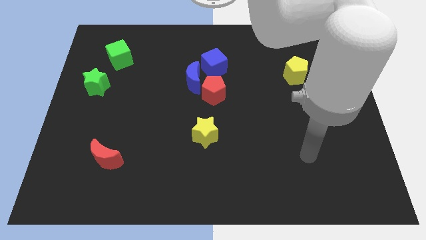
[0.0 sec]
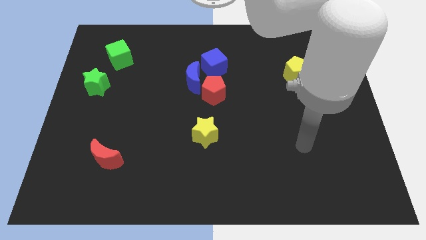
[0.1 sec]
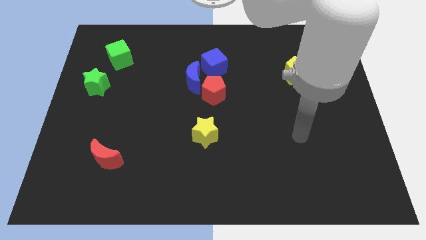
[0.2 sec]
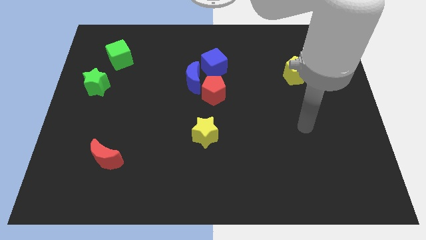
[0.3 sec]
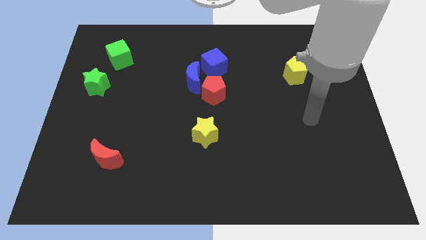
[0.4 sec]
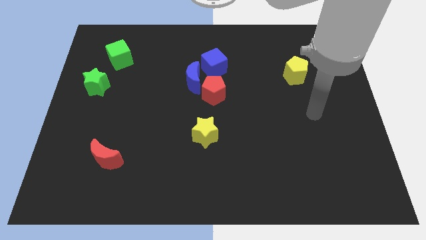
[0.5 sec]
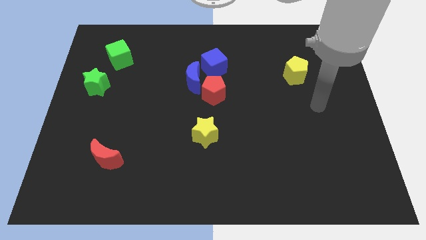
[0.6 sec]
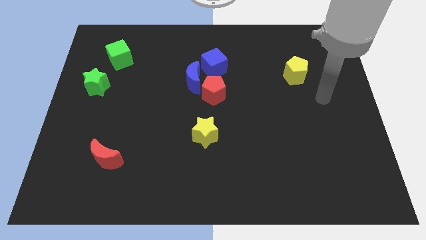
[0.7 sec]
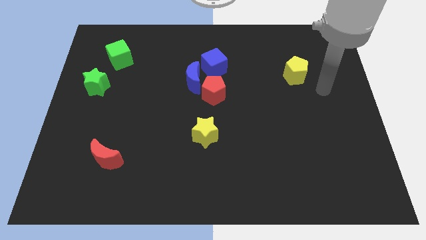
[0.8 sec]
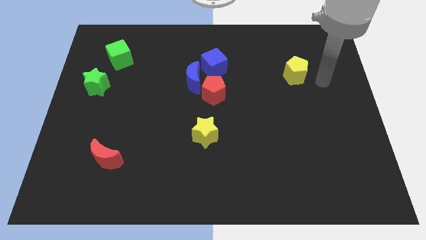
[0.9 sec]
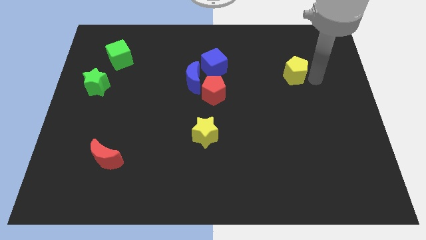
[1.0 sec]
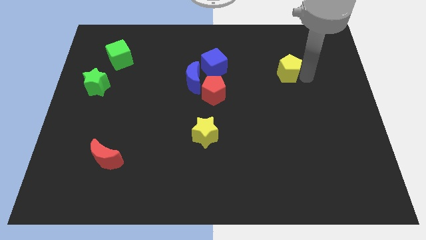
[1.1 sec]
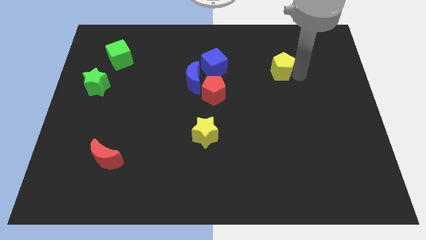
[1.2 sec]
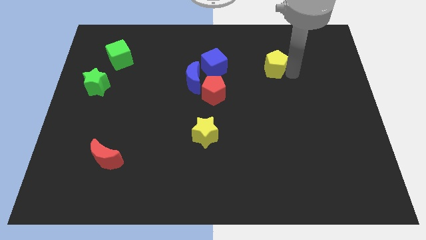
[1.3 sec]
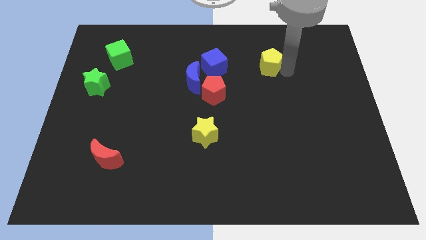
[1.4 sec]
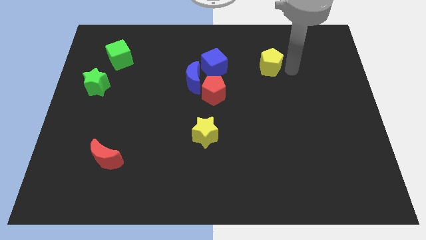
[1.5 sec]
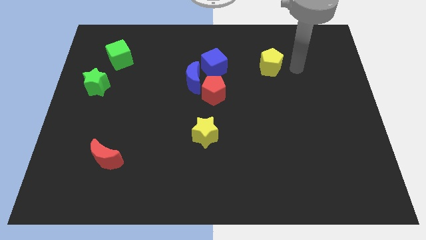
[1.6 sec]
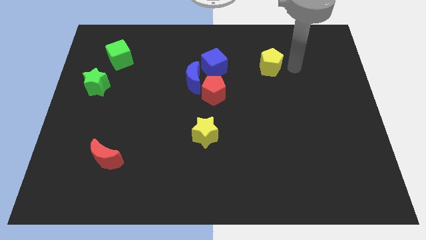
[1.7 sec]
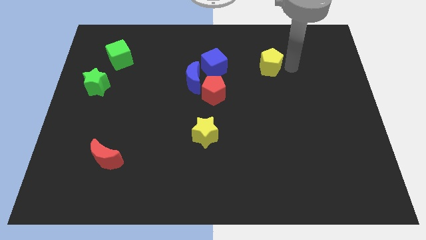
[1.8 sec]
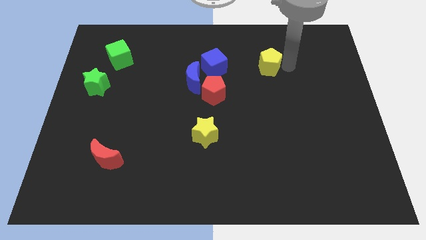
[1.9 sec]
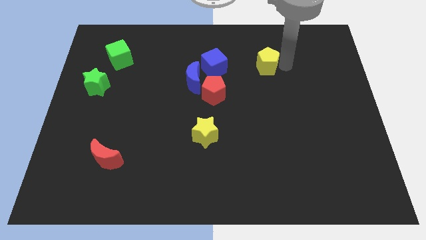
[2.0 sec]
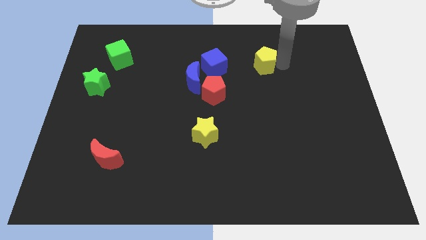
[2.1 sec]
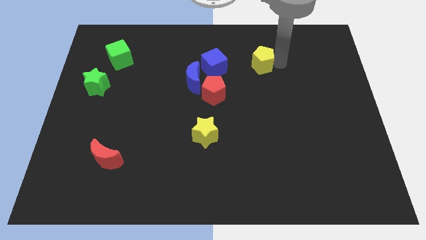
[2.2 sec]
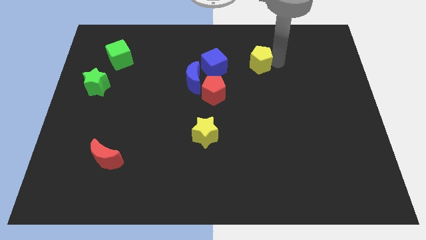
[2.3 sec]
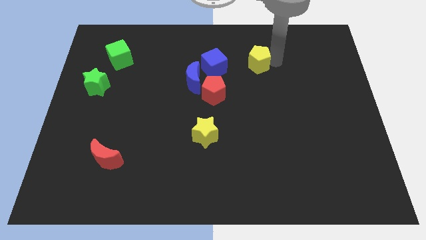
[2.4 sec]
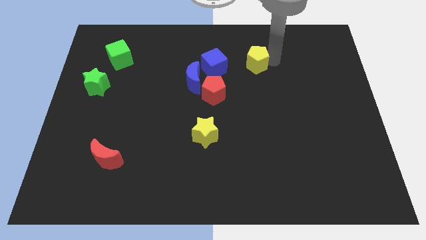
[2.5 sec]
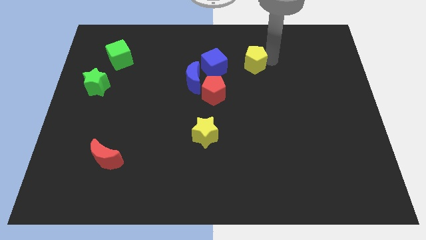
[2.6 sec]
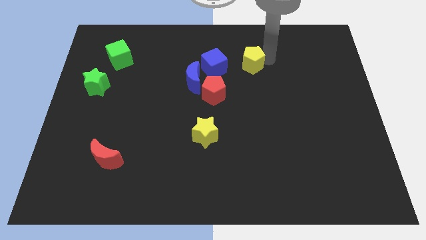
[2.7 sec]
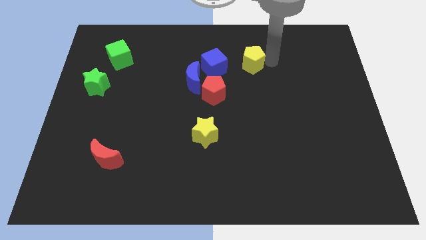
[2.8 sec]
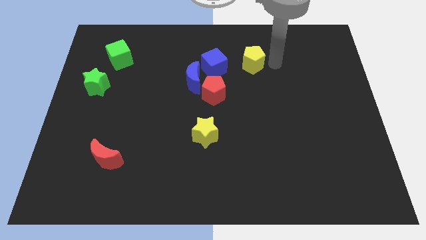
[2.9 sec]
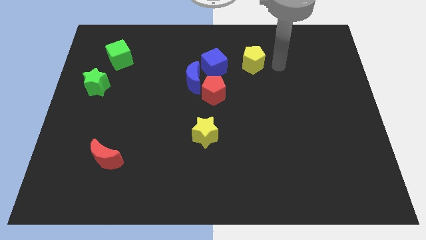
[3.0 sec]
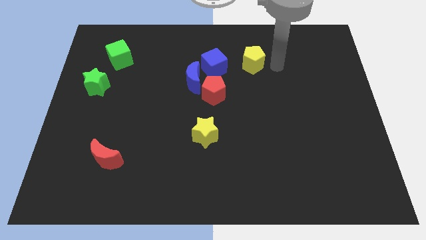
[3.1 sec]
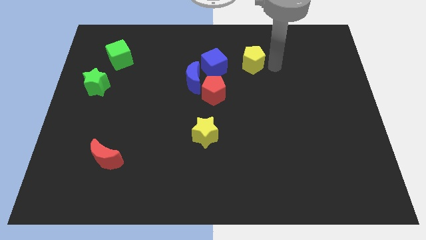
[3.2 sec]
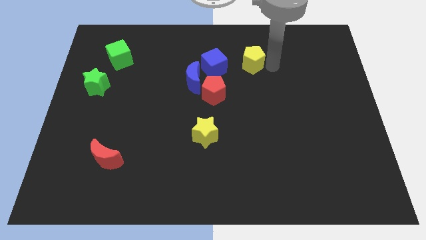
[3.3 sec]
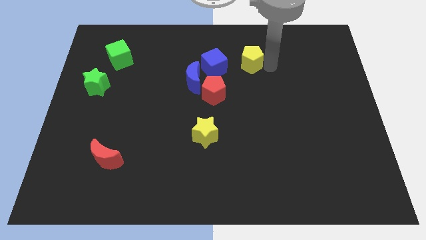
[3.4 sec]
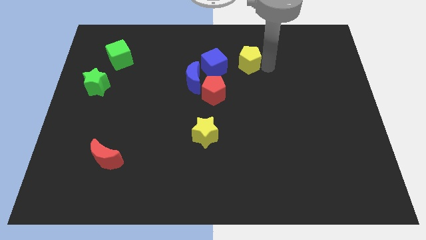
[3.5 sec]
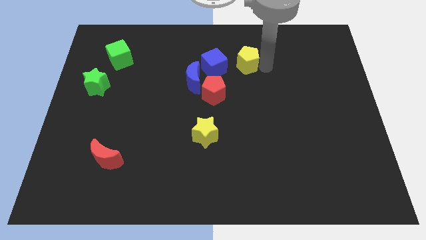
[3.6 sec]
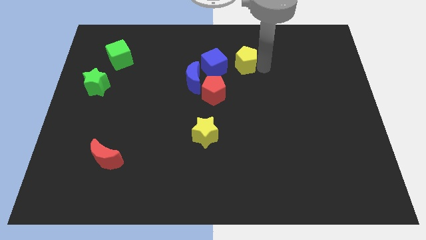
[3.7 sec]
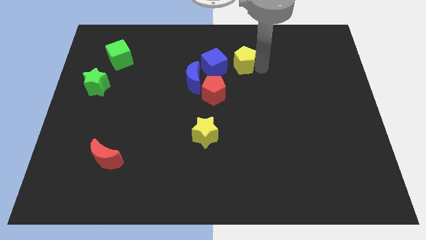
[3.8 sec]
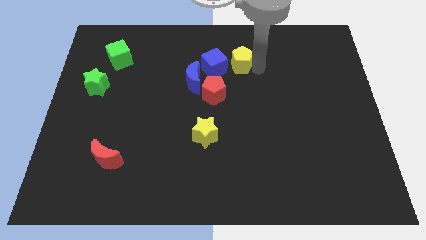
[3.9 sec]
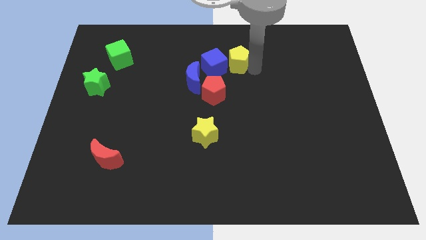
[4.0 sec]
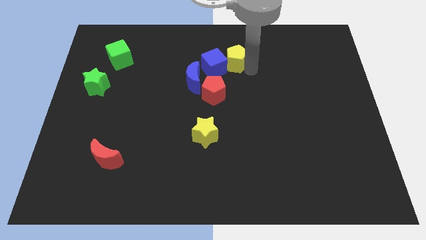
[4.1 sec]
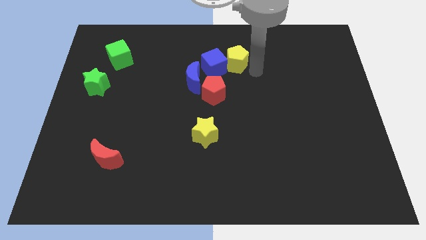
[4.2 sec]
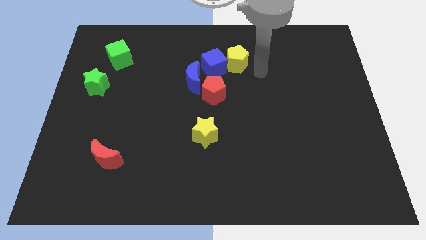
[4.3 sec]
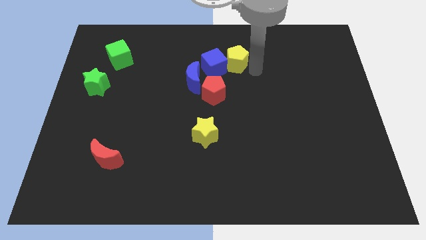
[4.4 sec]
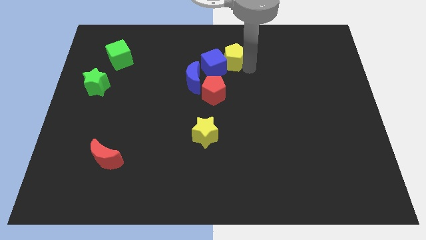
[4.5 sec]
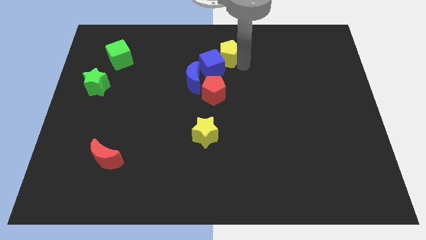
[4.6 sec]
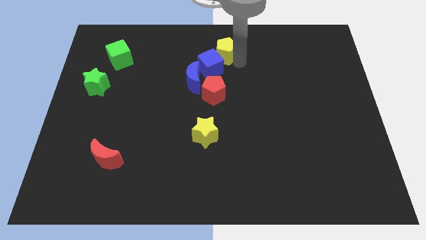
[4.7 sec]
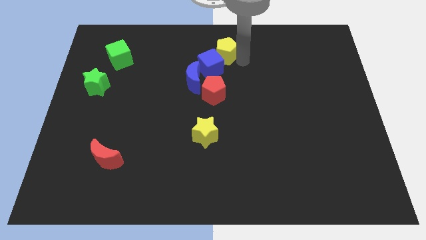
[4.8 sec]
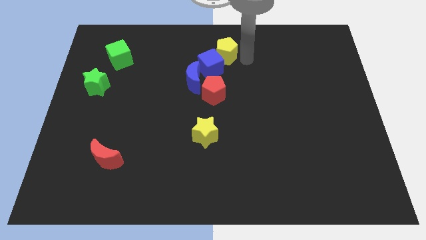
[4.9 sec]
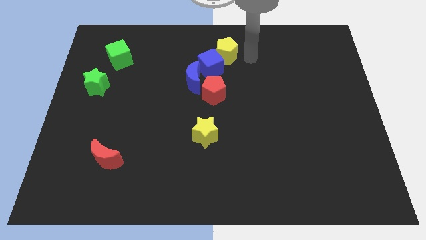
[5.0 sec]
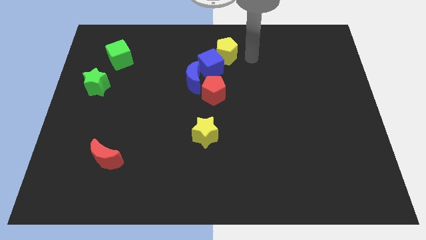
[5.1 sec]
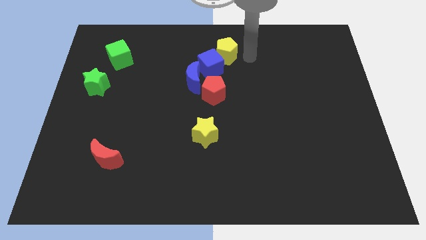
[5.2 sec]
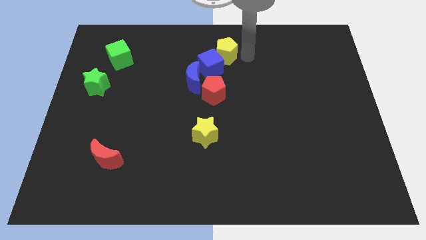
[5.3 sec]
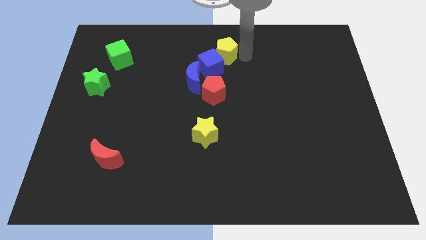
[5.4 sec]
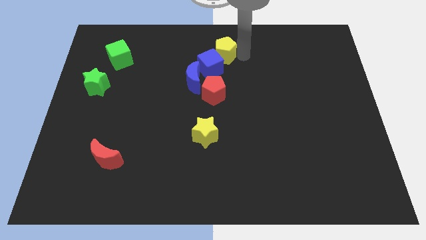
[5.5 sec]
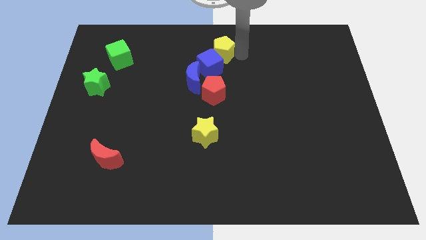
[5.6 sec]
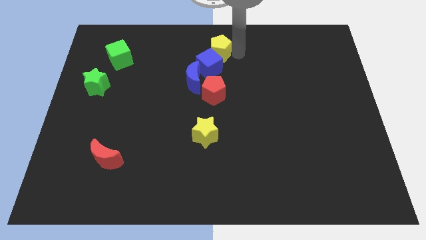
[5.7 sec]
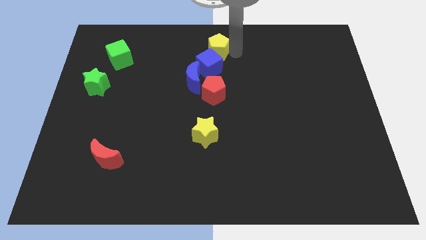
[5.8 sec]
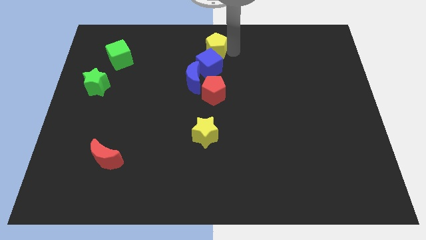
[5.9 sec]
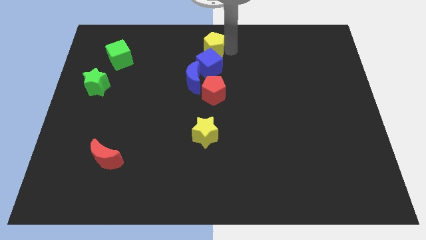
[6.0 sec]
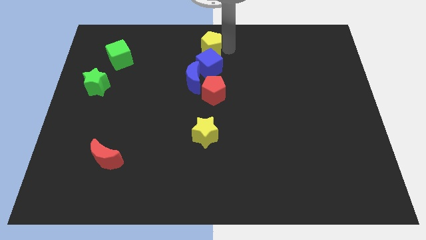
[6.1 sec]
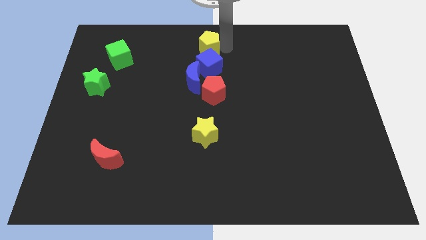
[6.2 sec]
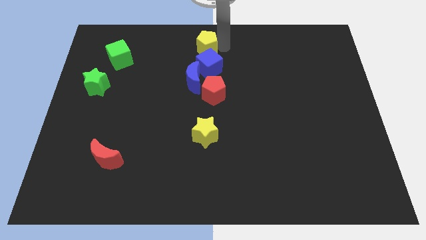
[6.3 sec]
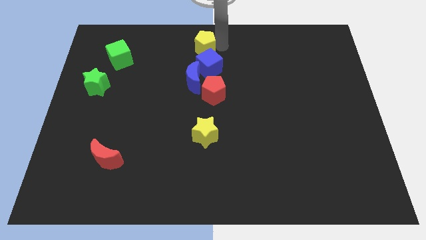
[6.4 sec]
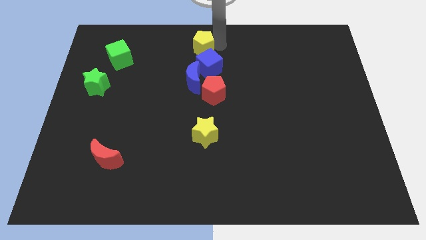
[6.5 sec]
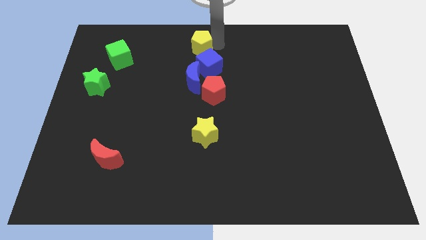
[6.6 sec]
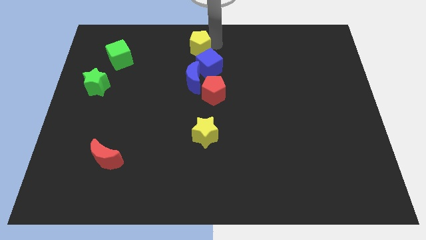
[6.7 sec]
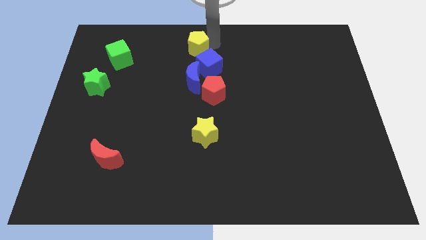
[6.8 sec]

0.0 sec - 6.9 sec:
move the yellow pentagon to the left

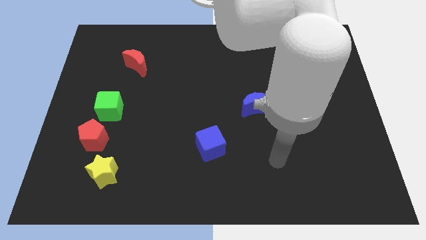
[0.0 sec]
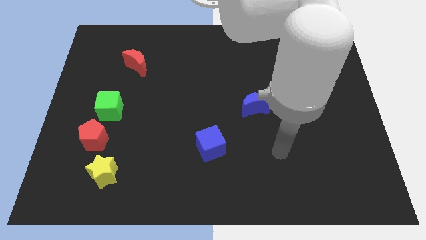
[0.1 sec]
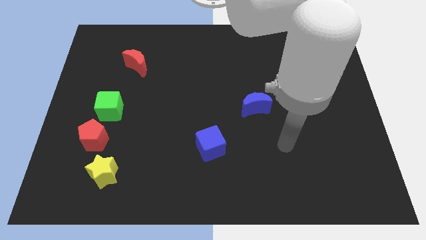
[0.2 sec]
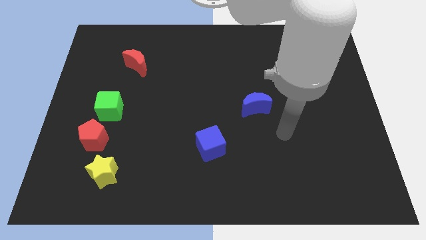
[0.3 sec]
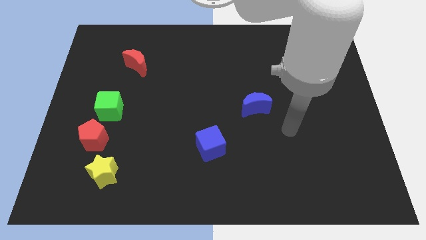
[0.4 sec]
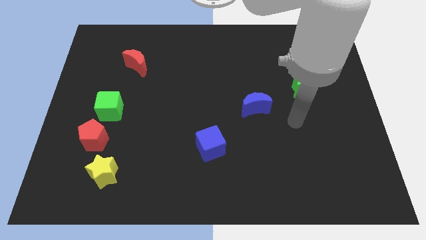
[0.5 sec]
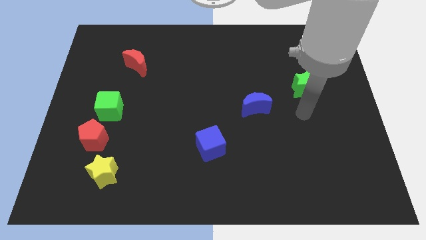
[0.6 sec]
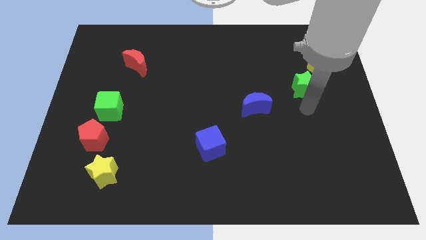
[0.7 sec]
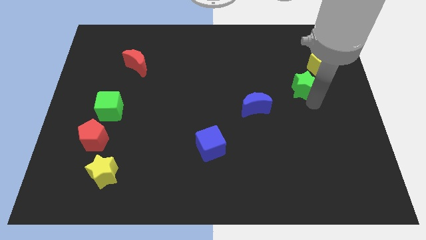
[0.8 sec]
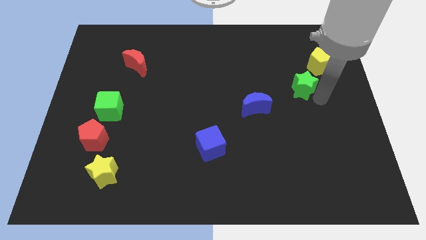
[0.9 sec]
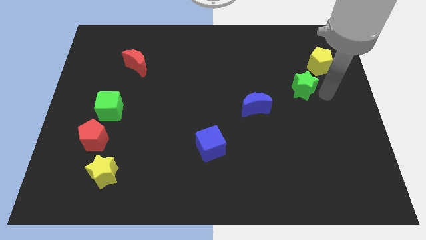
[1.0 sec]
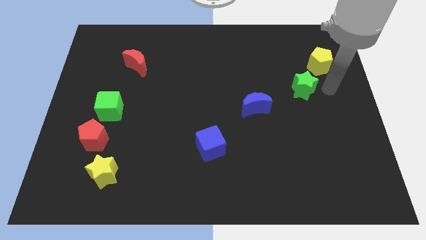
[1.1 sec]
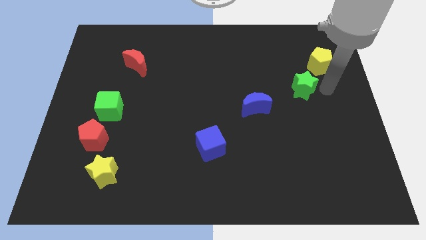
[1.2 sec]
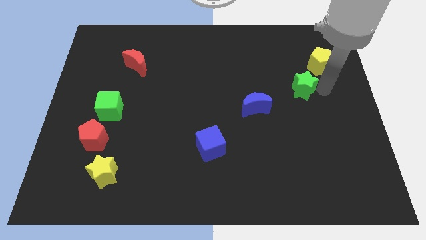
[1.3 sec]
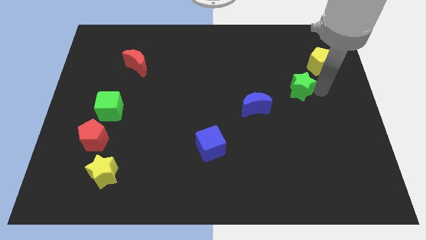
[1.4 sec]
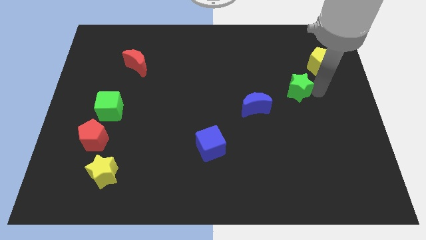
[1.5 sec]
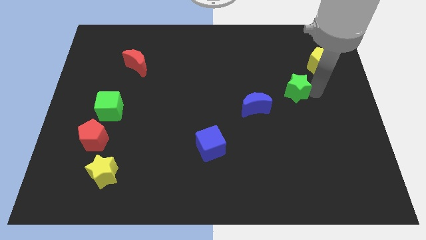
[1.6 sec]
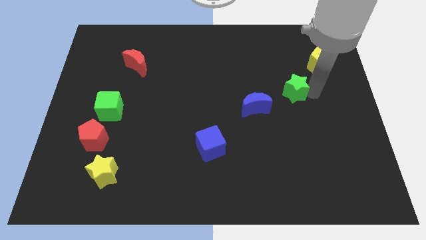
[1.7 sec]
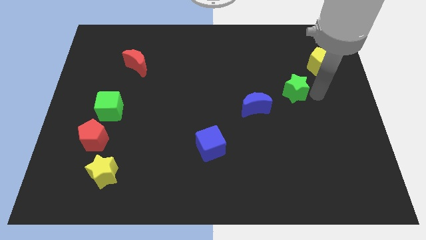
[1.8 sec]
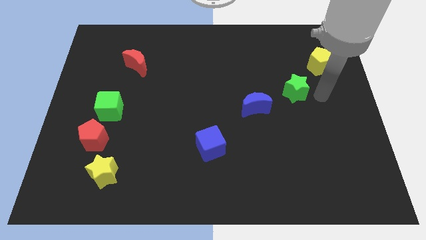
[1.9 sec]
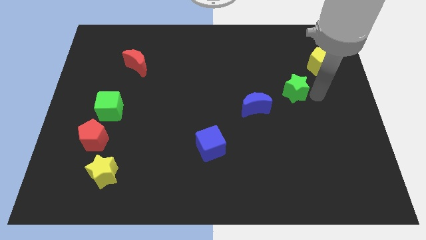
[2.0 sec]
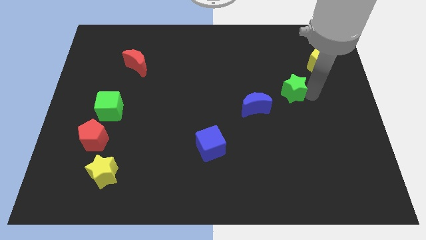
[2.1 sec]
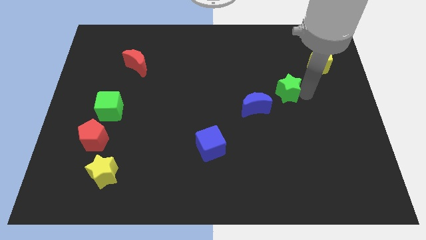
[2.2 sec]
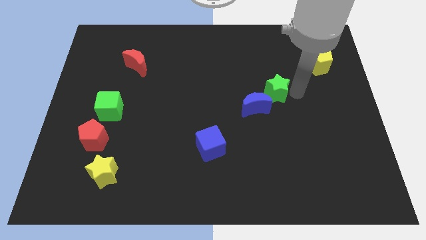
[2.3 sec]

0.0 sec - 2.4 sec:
slightly slide the green star left
